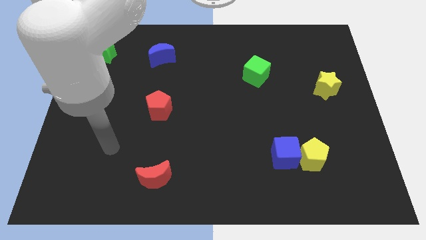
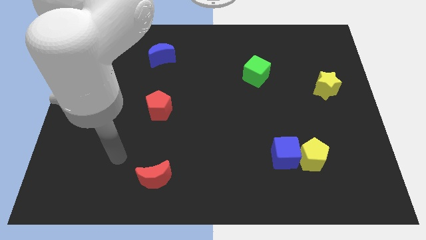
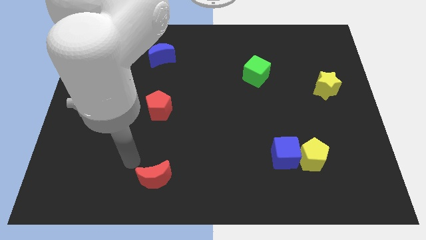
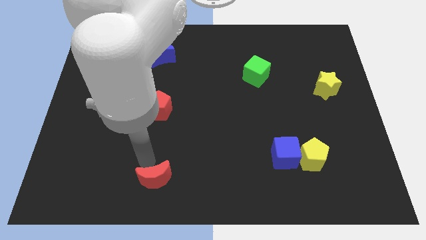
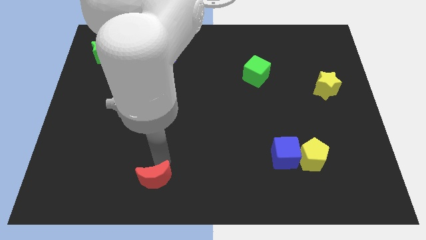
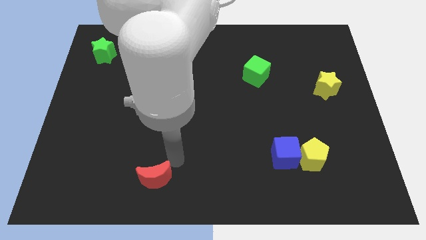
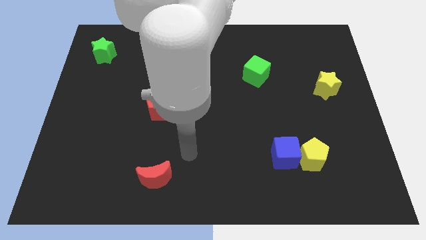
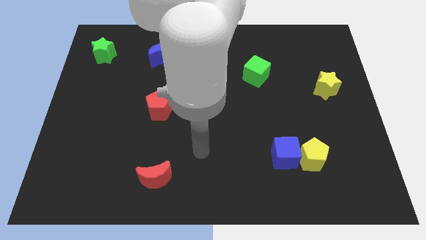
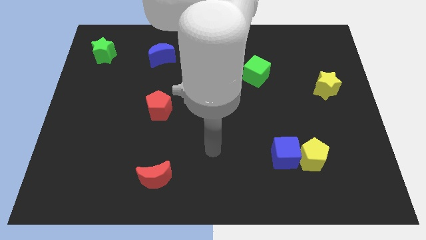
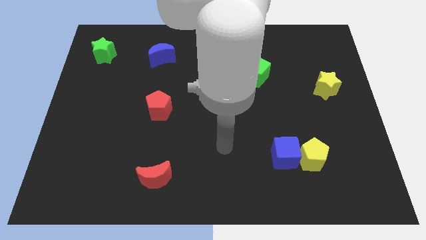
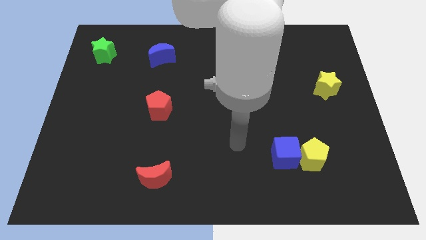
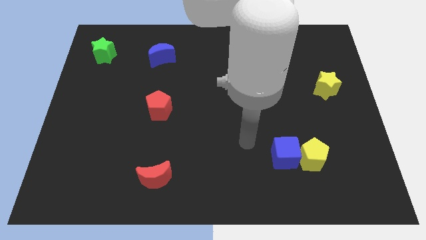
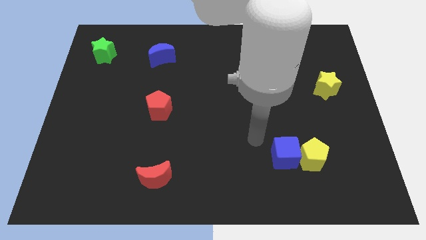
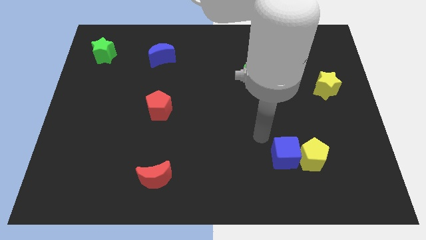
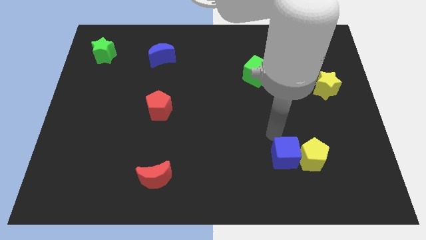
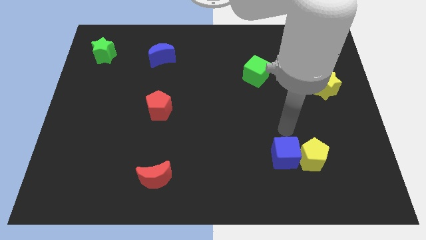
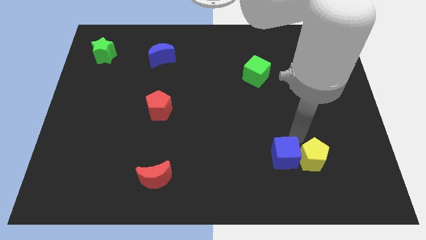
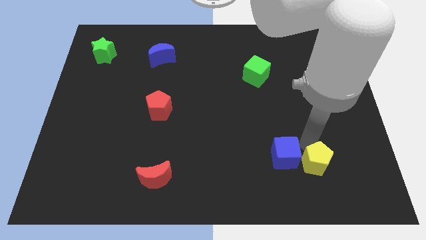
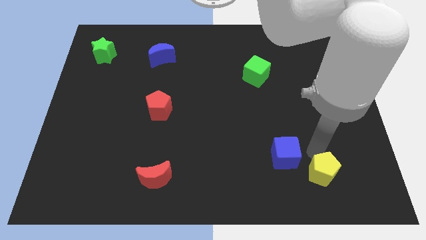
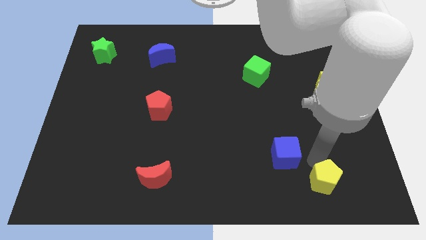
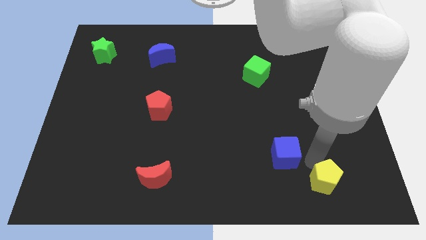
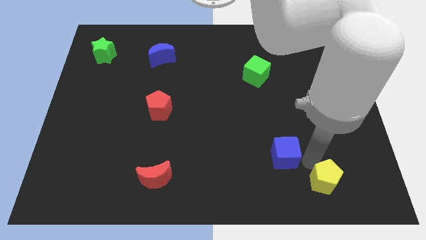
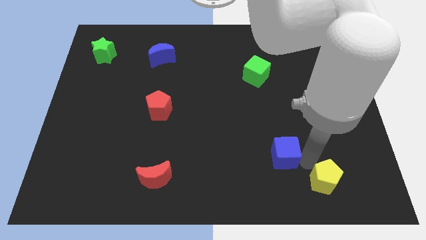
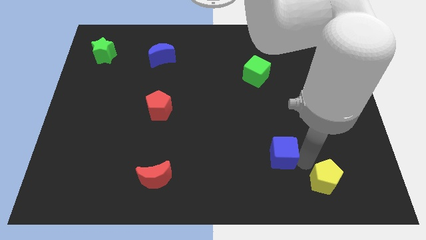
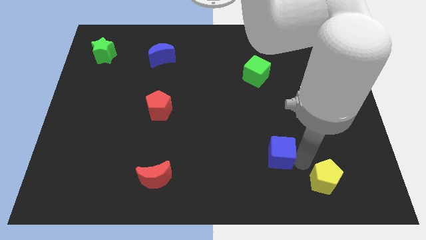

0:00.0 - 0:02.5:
move the blue cube away from the yellow pentagon

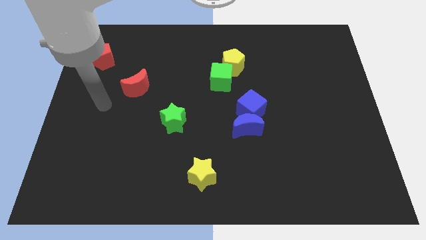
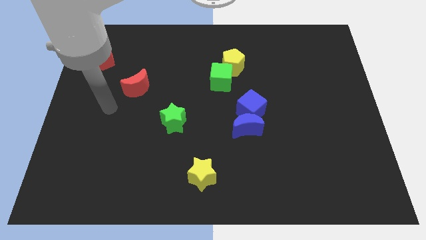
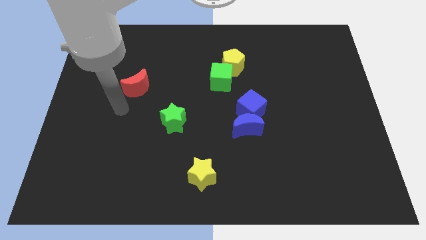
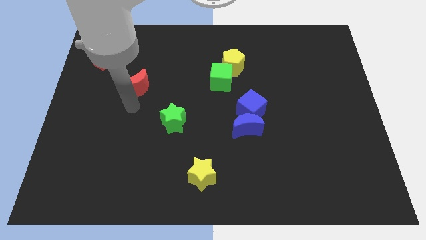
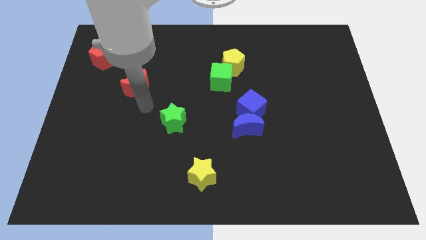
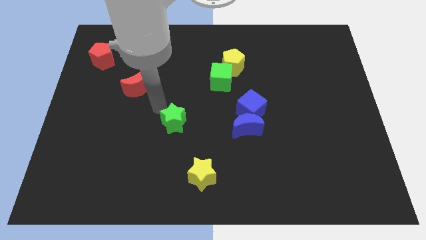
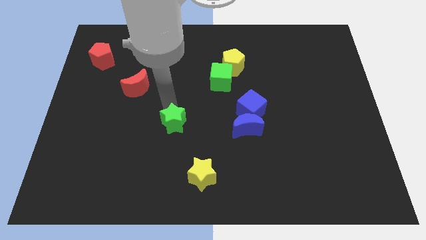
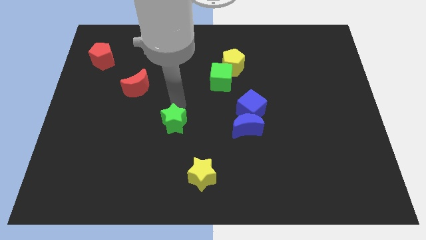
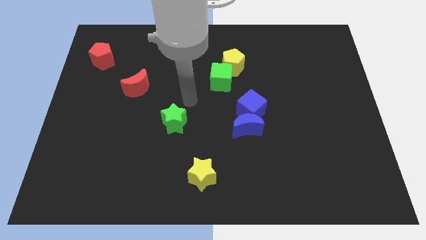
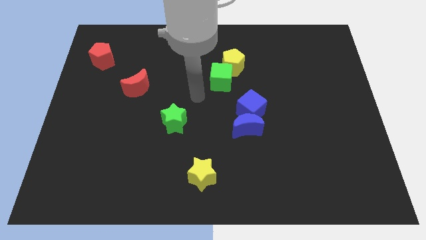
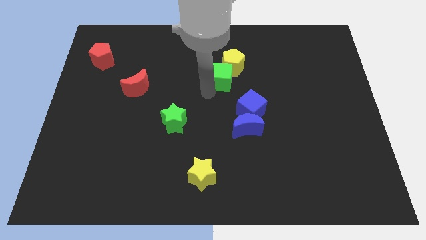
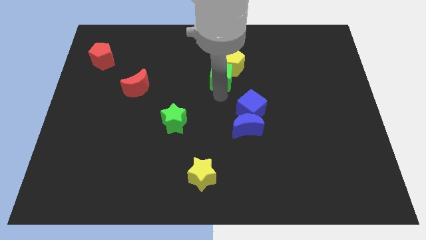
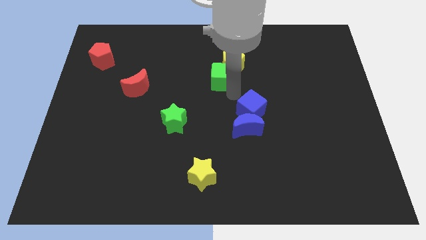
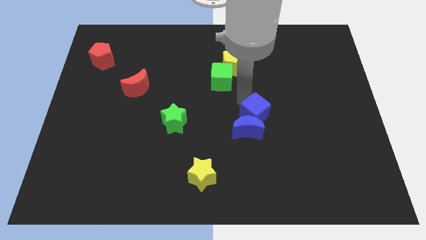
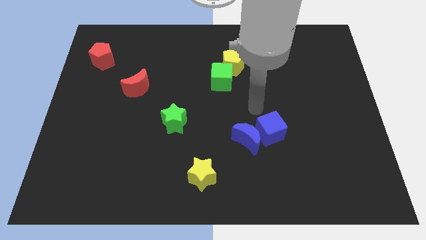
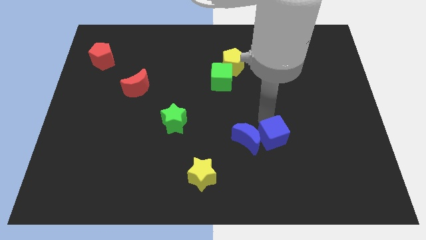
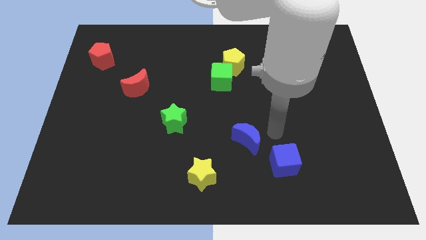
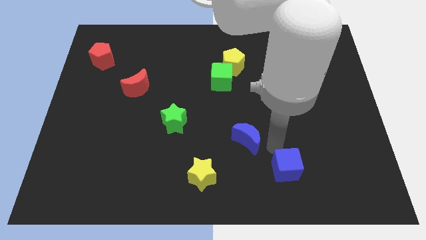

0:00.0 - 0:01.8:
separate the blue moon from the blue cube

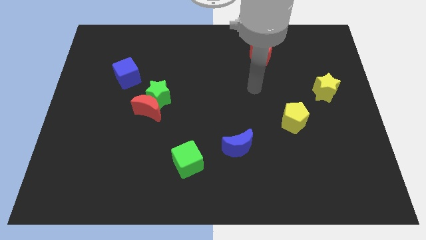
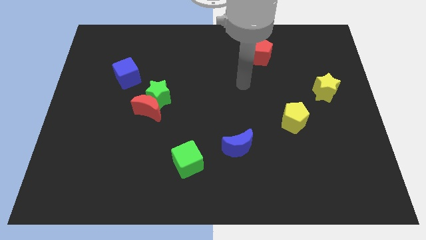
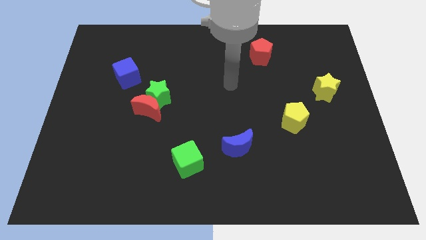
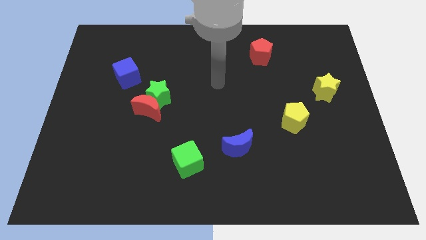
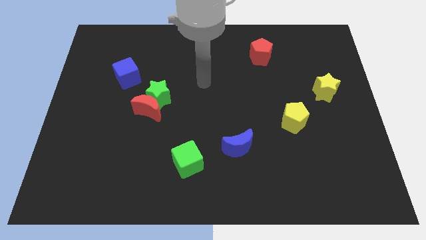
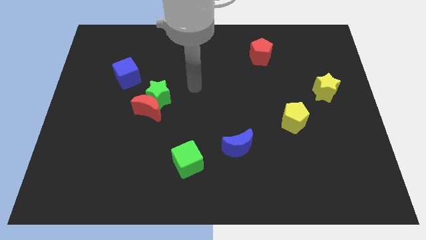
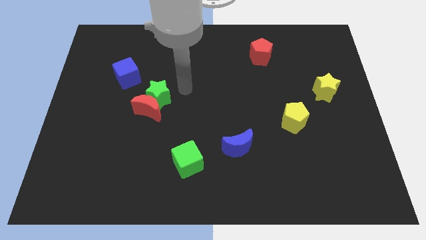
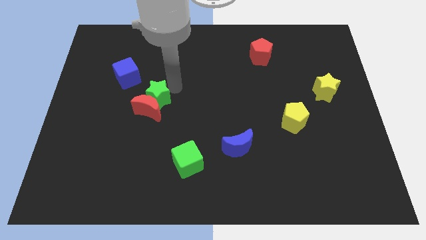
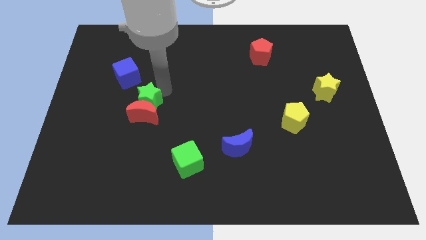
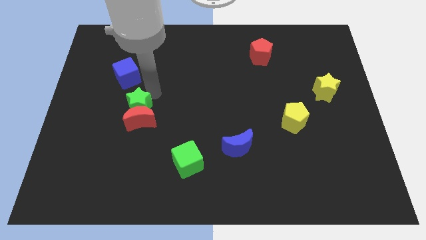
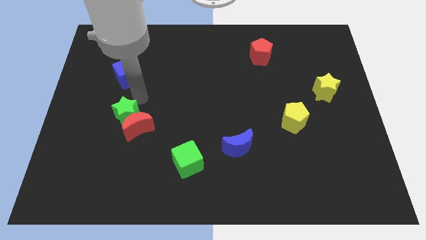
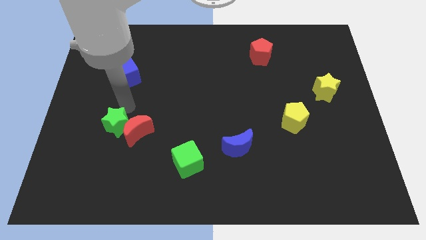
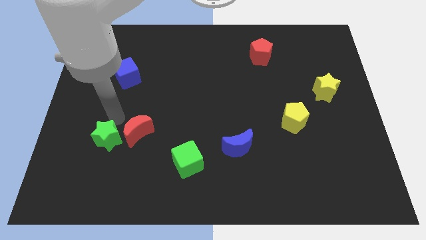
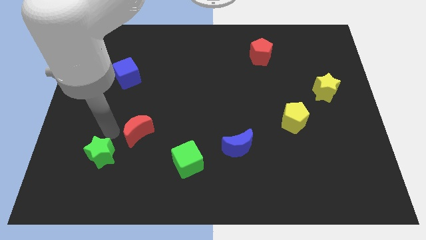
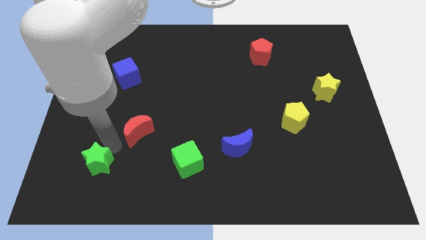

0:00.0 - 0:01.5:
separate the red moon from the green star

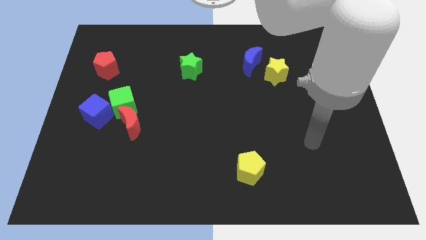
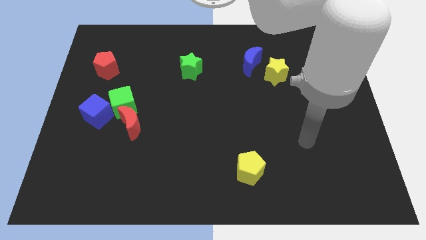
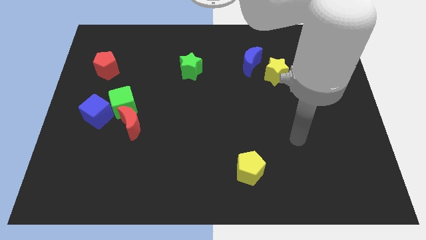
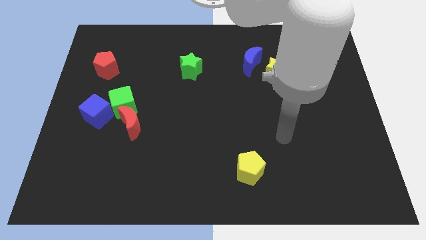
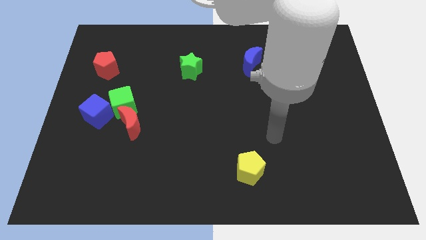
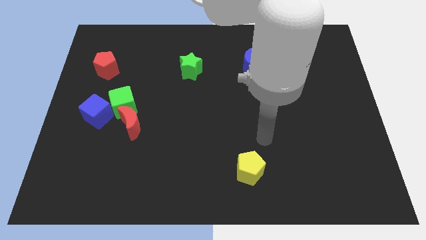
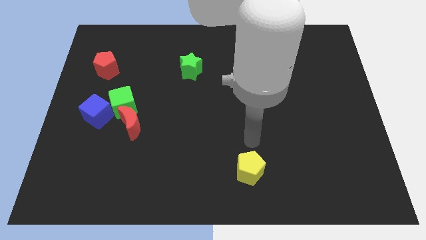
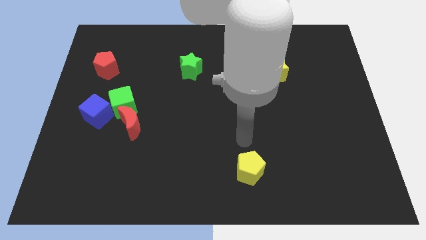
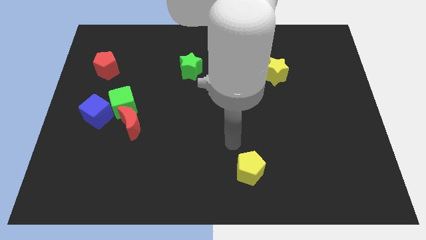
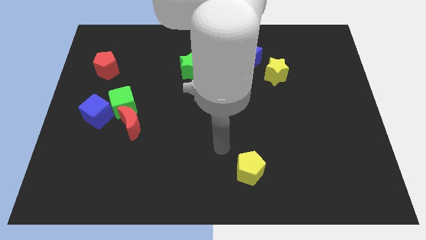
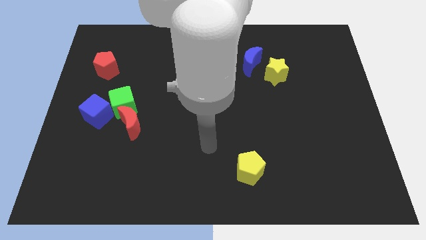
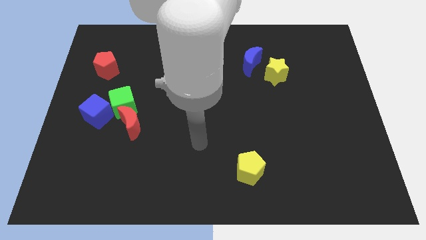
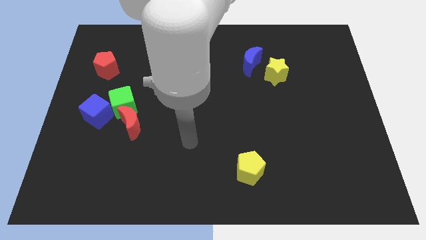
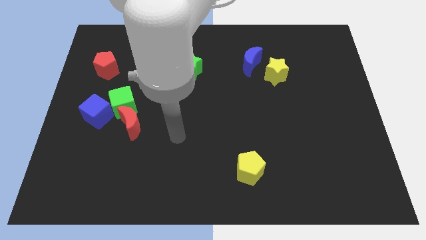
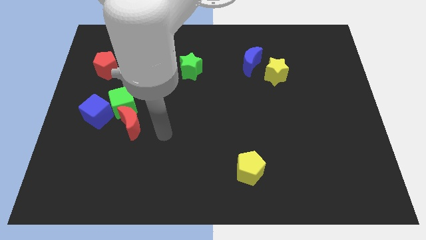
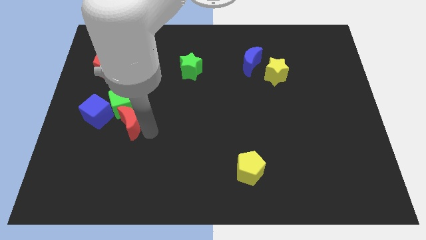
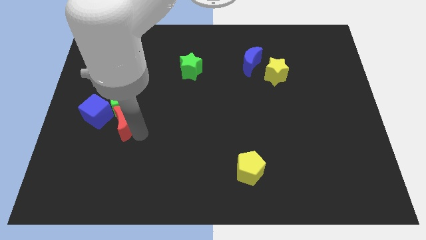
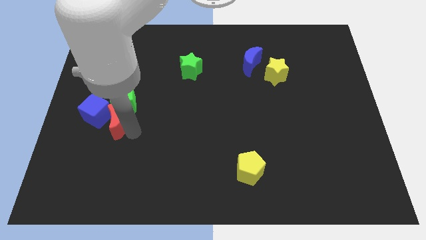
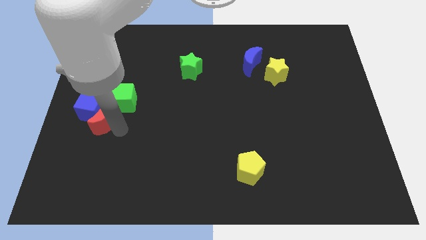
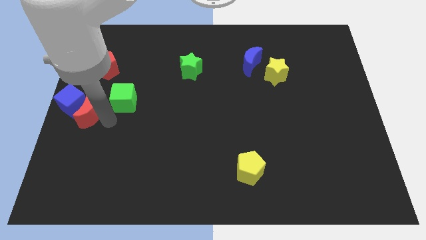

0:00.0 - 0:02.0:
move the green cube away from the red moon and blue cube

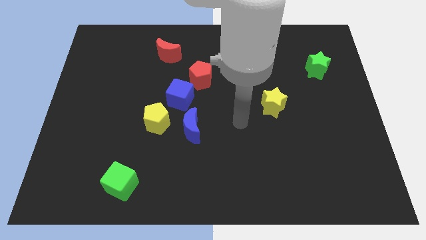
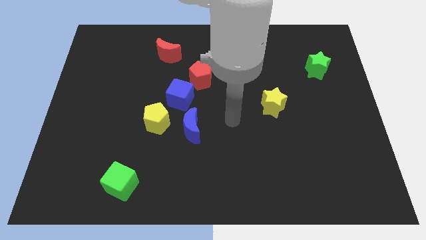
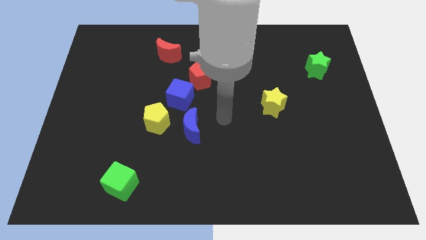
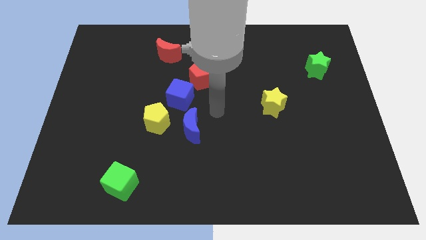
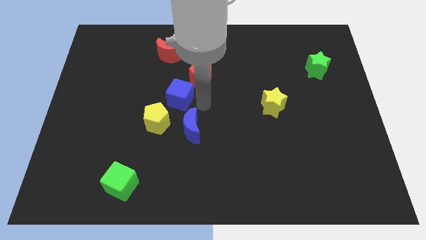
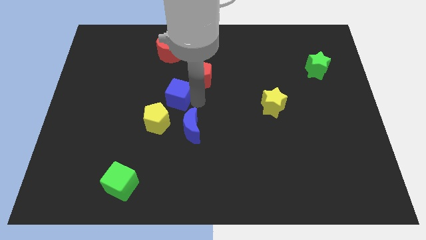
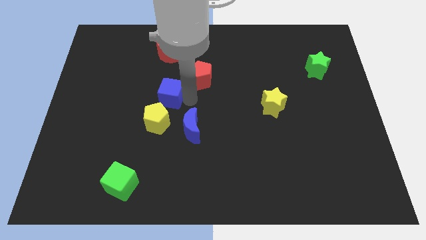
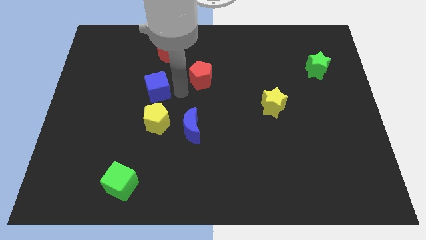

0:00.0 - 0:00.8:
pull the red pentagon apart from the blue cube

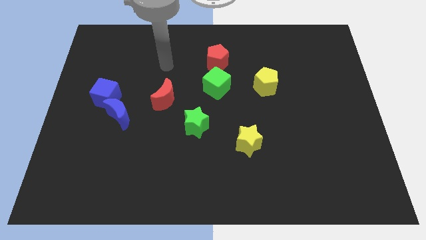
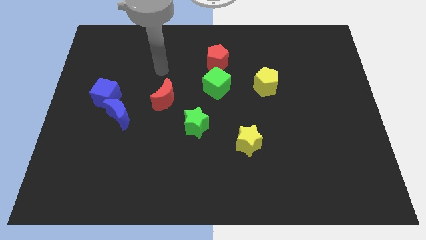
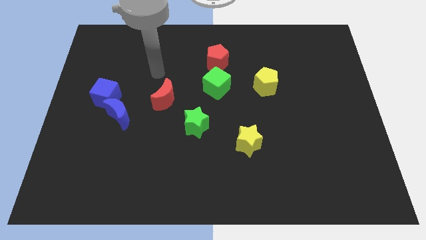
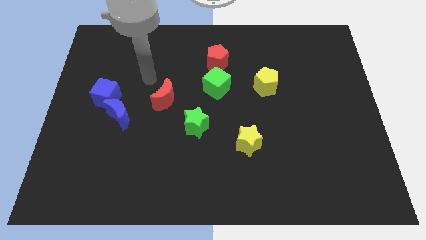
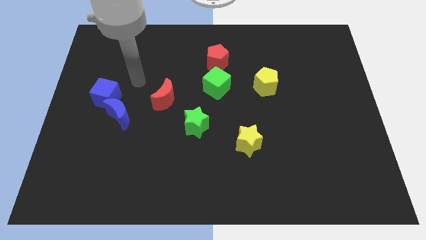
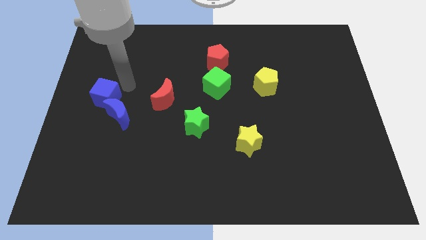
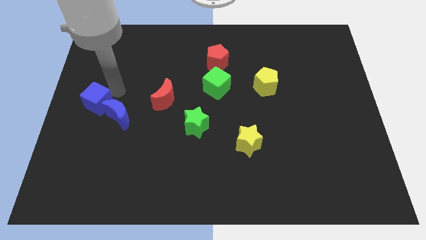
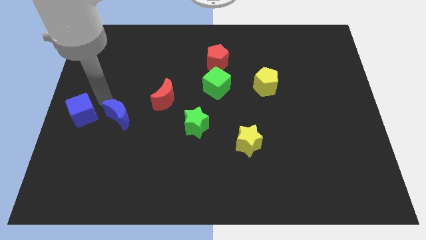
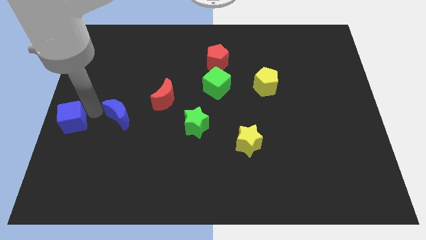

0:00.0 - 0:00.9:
move the blue moon away from the blue cube
